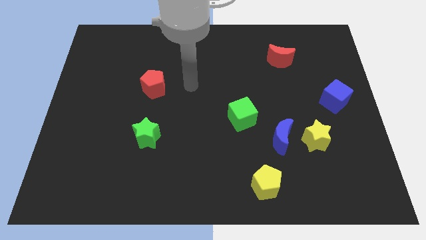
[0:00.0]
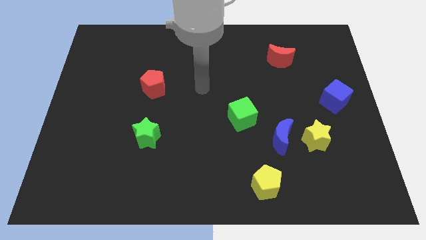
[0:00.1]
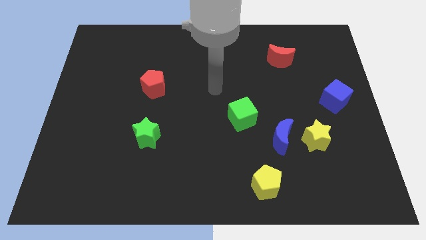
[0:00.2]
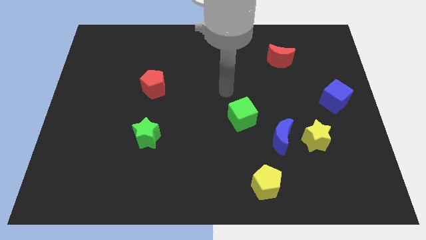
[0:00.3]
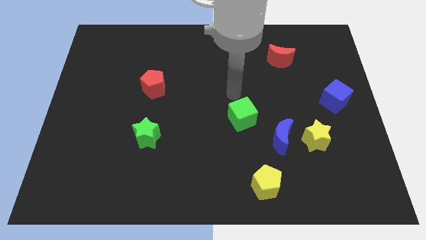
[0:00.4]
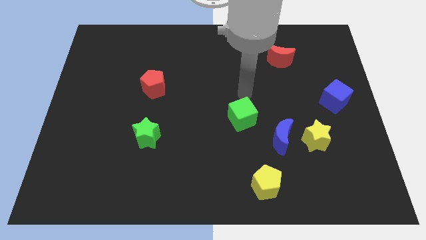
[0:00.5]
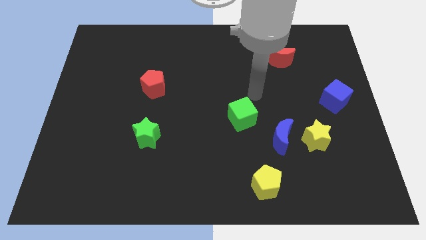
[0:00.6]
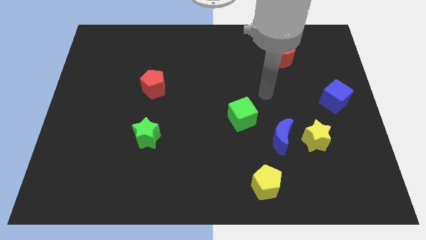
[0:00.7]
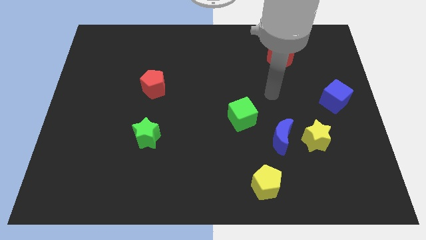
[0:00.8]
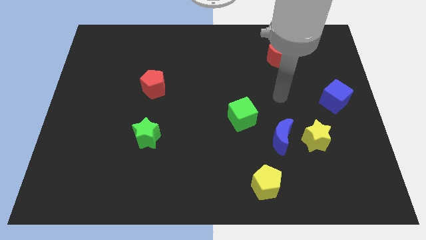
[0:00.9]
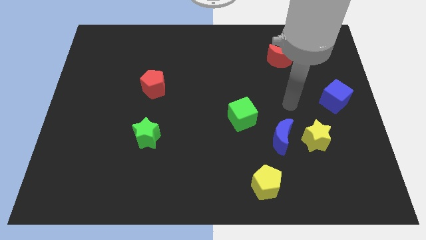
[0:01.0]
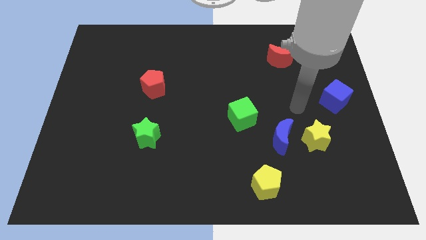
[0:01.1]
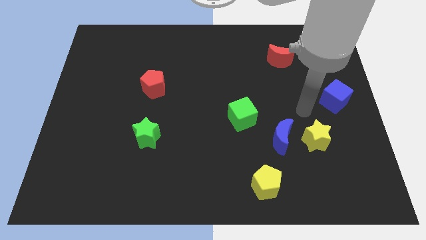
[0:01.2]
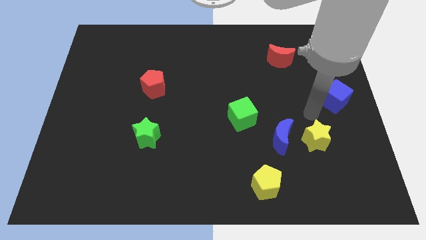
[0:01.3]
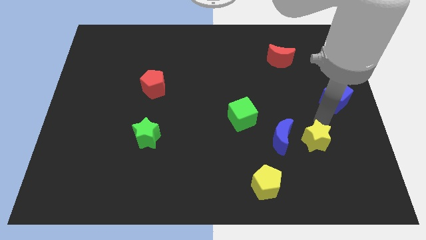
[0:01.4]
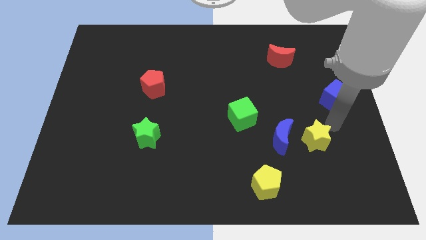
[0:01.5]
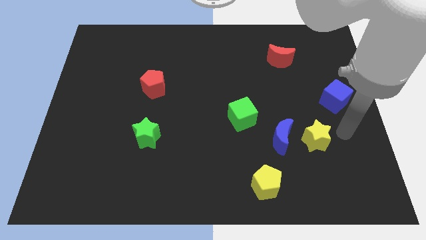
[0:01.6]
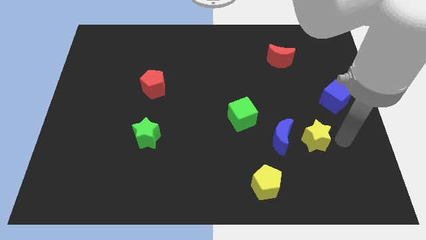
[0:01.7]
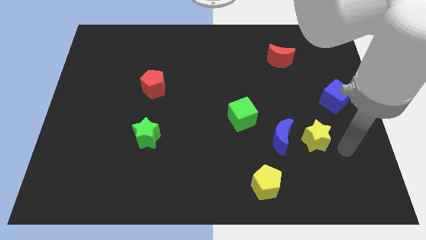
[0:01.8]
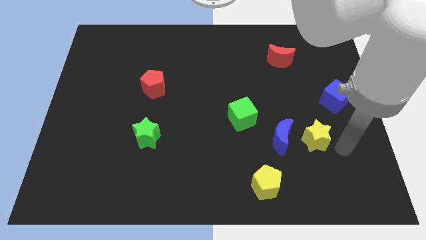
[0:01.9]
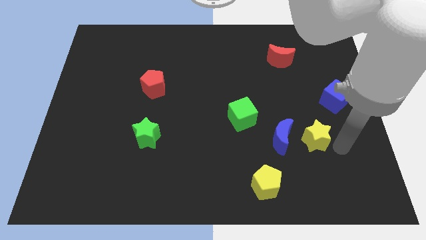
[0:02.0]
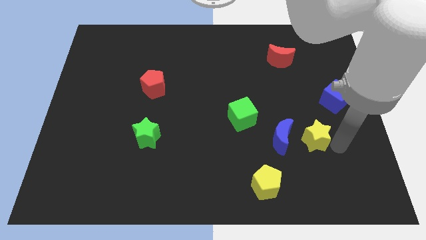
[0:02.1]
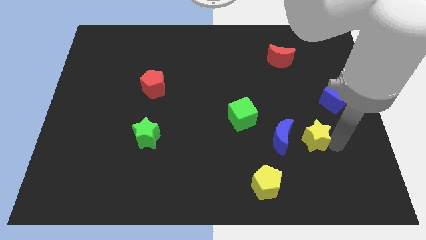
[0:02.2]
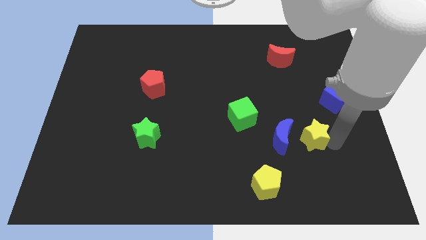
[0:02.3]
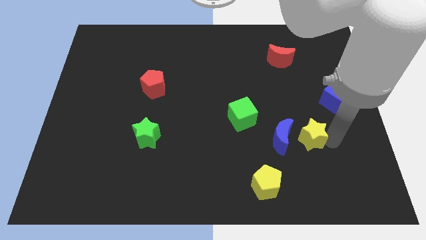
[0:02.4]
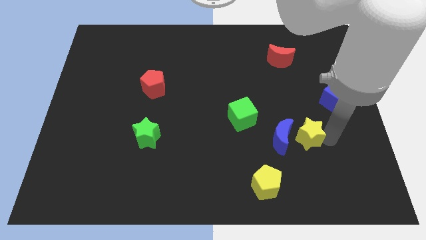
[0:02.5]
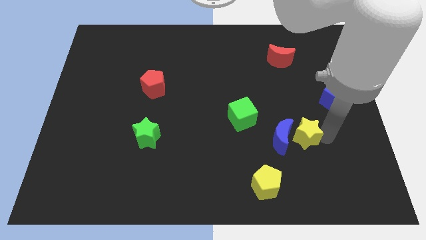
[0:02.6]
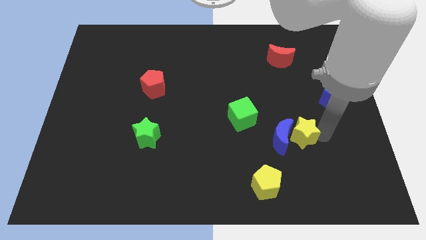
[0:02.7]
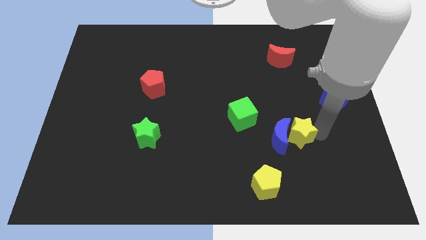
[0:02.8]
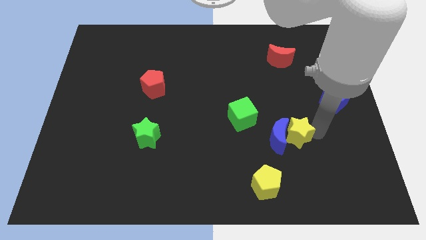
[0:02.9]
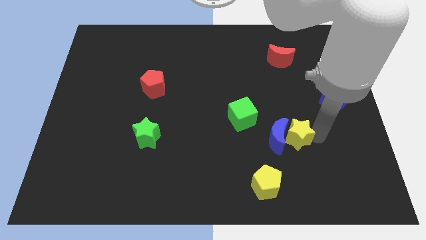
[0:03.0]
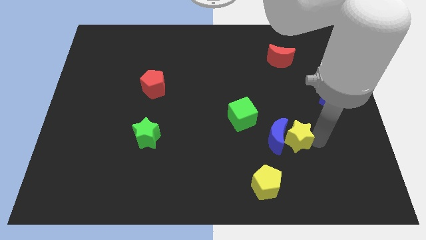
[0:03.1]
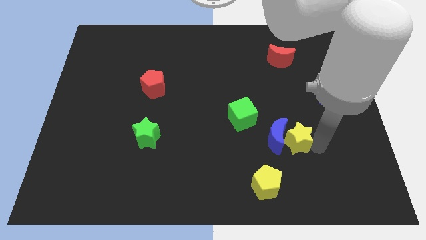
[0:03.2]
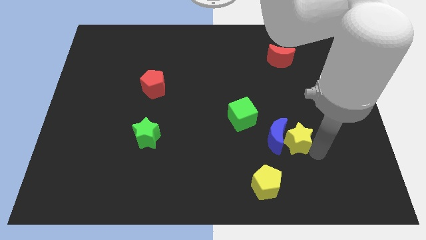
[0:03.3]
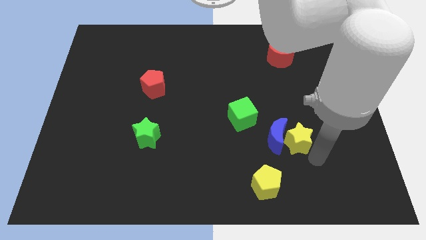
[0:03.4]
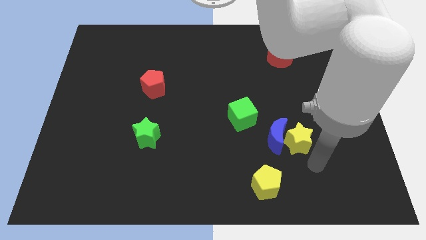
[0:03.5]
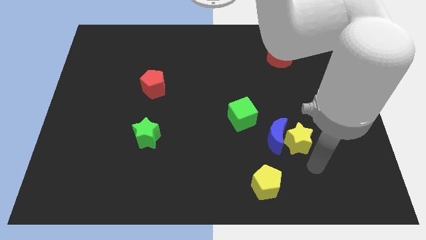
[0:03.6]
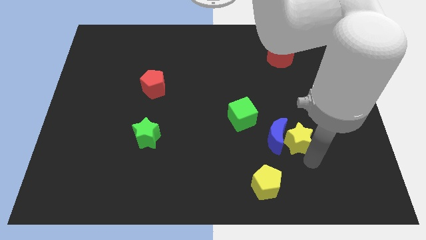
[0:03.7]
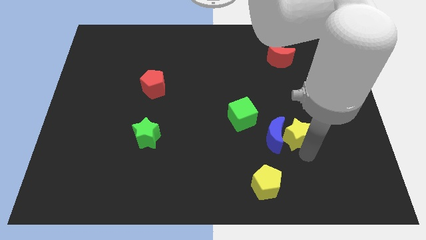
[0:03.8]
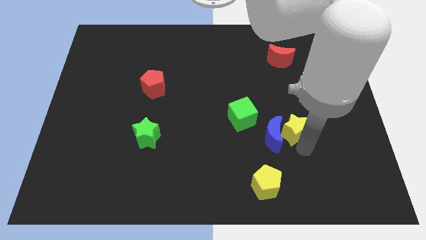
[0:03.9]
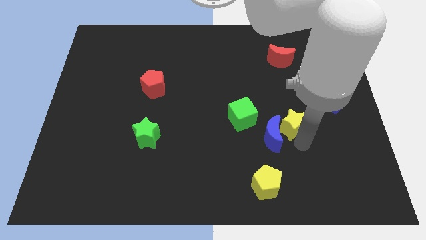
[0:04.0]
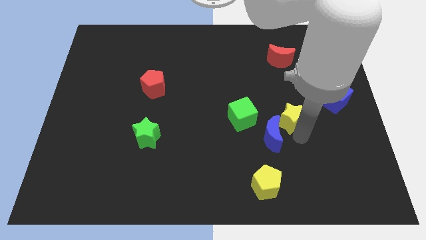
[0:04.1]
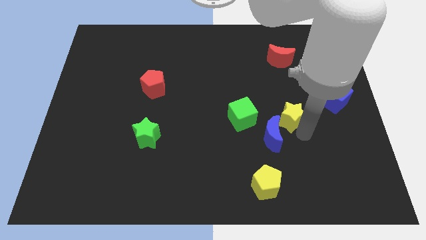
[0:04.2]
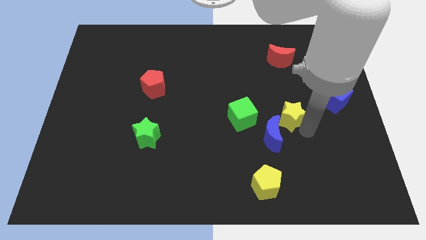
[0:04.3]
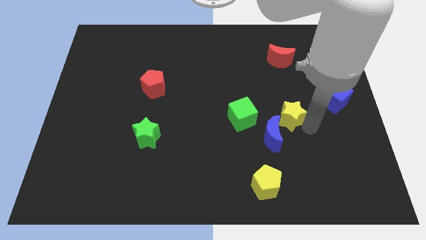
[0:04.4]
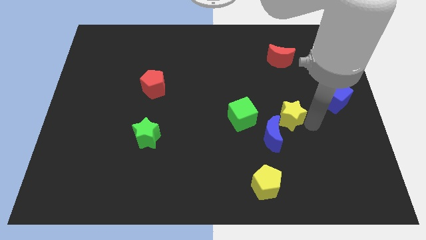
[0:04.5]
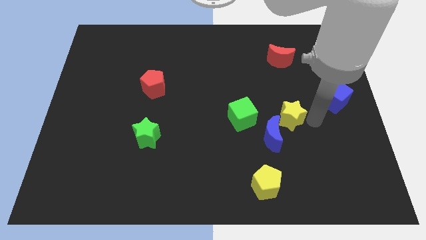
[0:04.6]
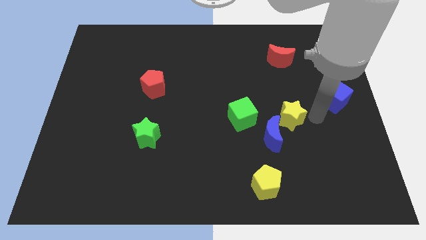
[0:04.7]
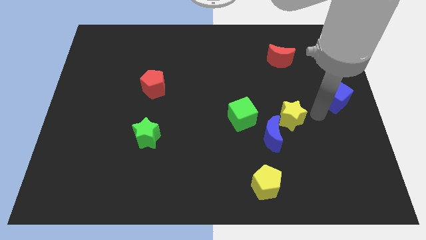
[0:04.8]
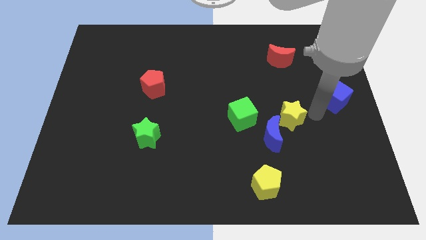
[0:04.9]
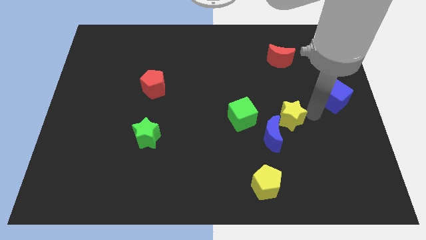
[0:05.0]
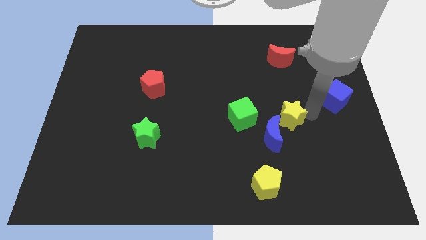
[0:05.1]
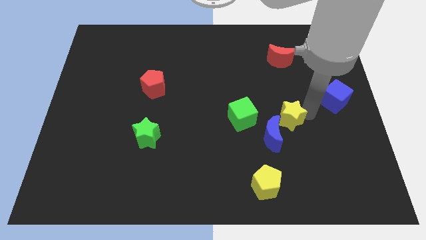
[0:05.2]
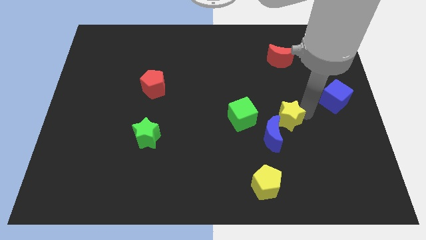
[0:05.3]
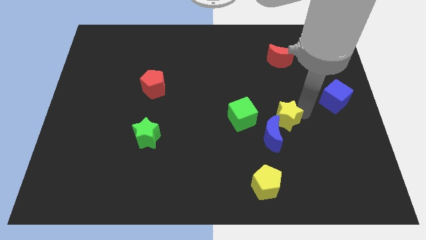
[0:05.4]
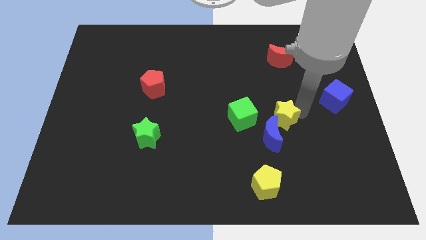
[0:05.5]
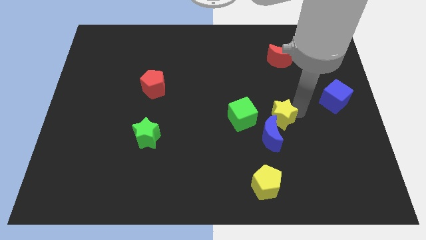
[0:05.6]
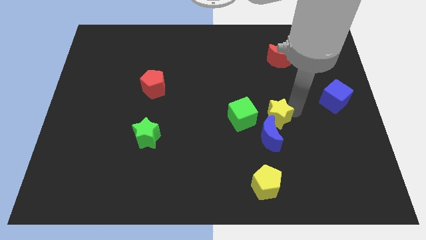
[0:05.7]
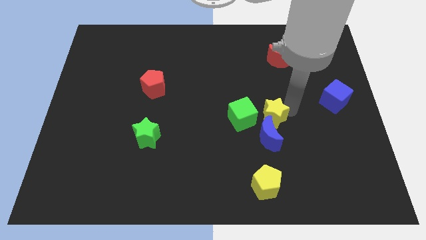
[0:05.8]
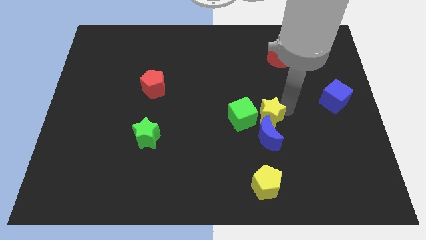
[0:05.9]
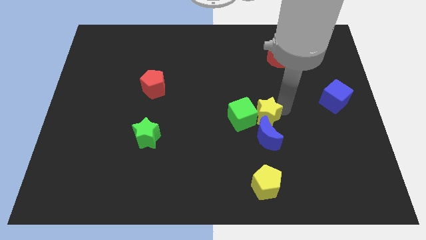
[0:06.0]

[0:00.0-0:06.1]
push the yellow star towards the green cube

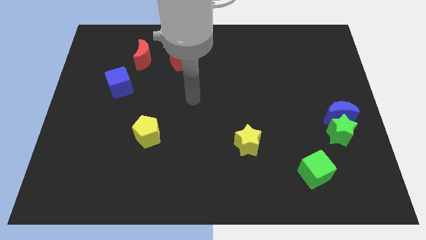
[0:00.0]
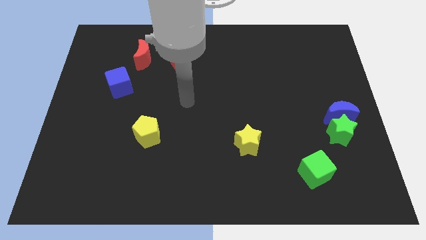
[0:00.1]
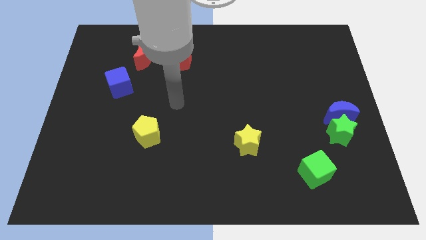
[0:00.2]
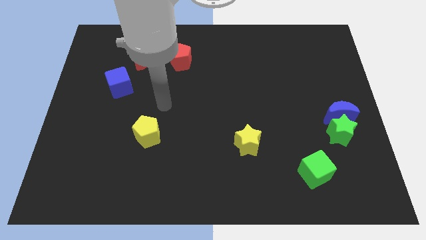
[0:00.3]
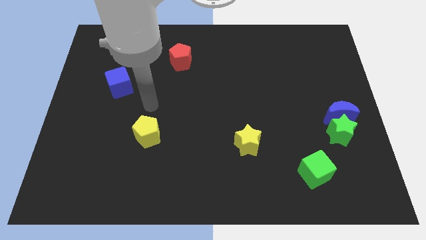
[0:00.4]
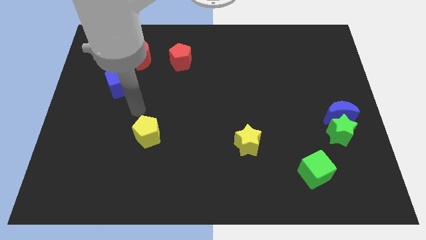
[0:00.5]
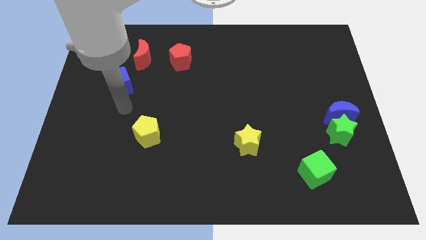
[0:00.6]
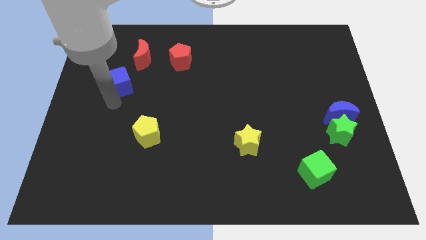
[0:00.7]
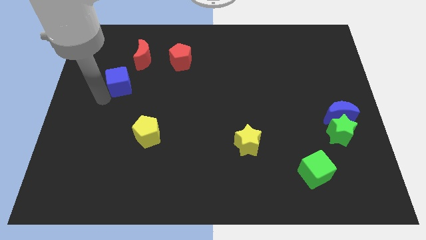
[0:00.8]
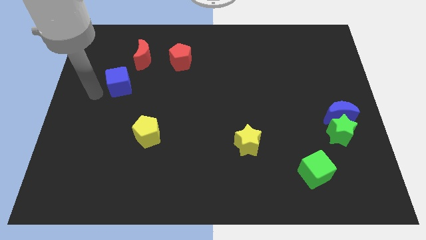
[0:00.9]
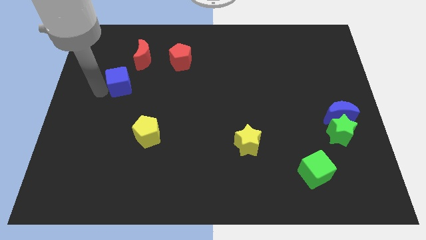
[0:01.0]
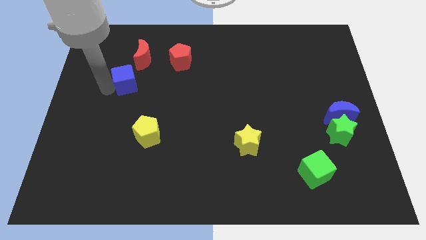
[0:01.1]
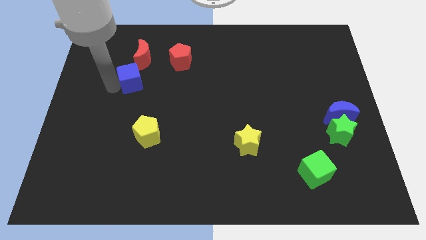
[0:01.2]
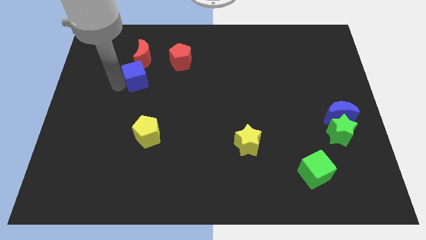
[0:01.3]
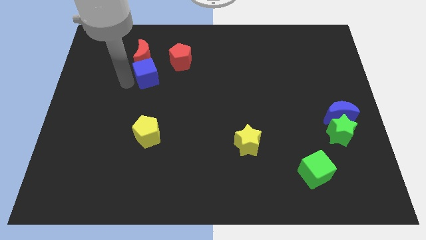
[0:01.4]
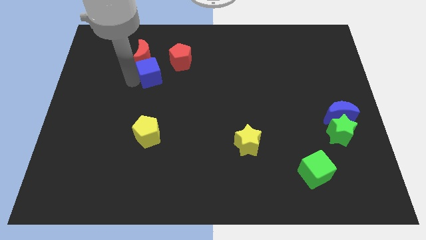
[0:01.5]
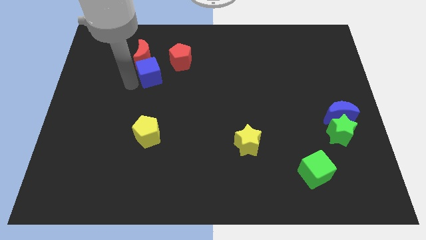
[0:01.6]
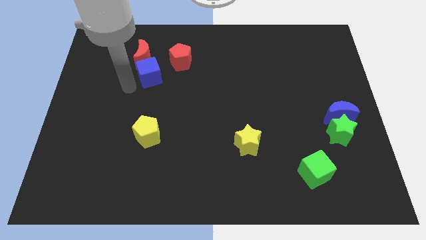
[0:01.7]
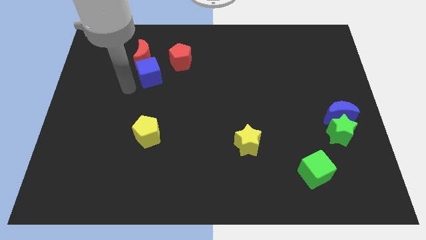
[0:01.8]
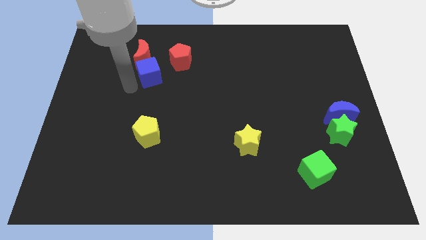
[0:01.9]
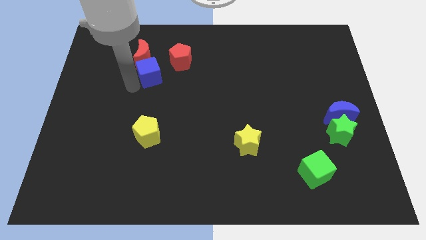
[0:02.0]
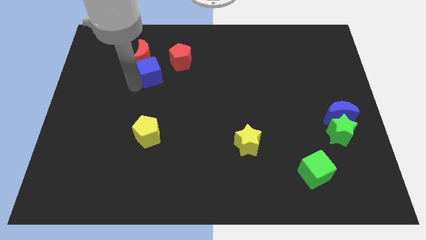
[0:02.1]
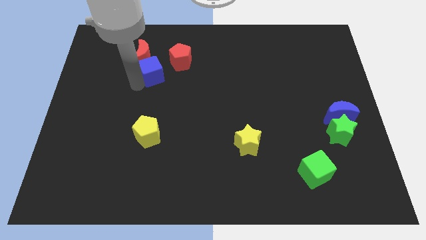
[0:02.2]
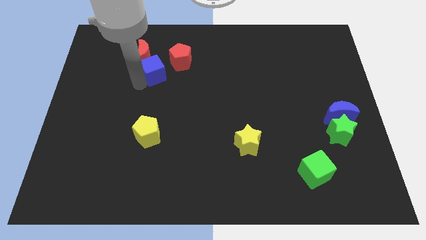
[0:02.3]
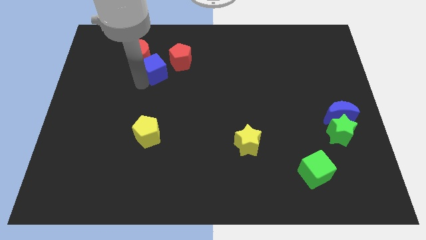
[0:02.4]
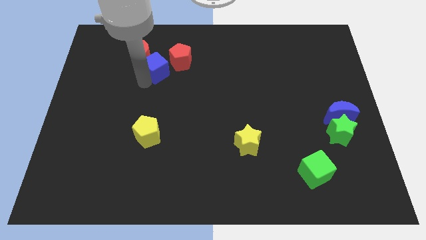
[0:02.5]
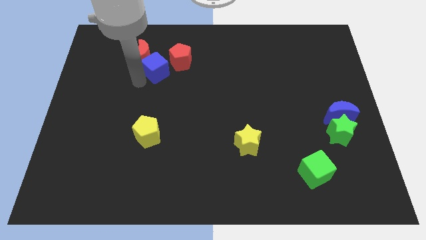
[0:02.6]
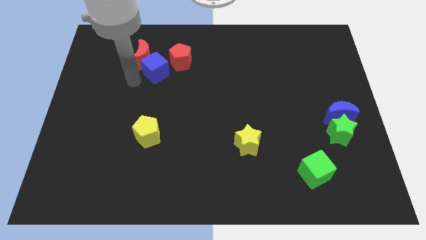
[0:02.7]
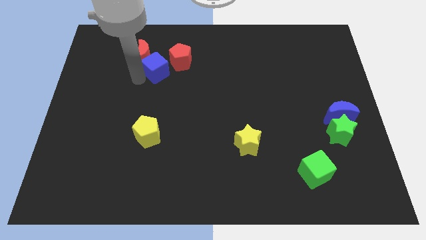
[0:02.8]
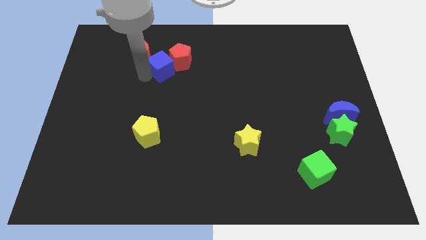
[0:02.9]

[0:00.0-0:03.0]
slide the blue cube towards the red pentagon
